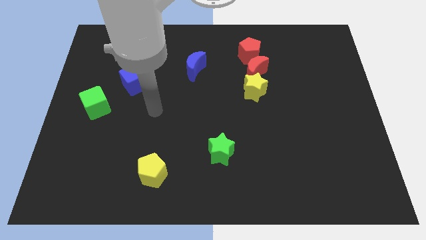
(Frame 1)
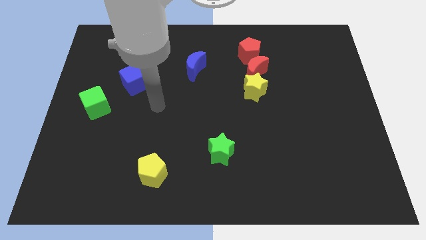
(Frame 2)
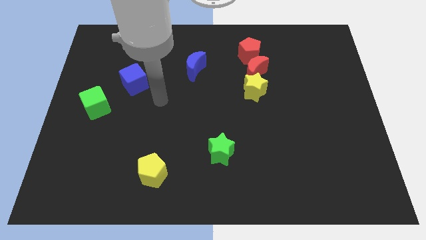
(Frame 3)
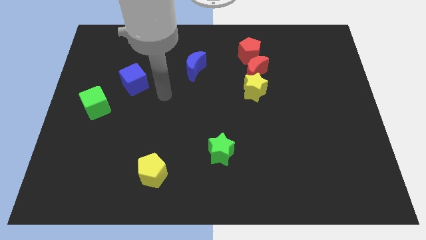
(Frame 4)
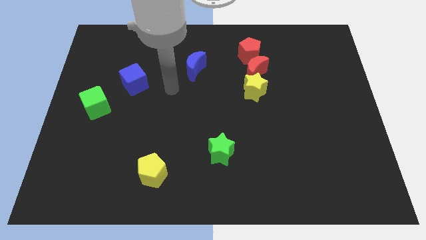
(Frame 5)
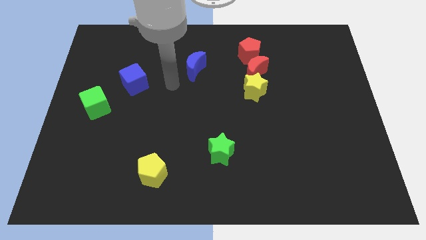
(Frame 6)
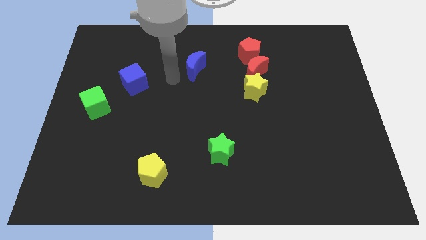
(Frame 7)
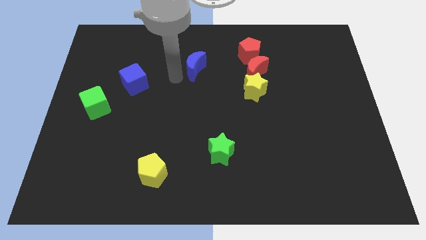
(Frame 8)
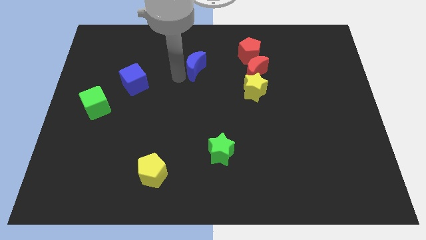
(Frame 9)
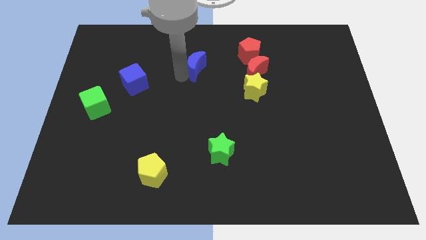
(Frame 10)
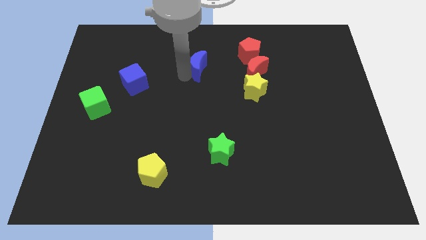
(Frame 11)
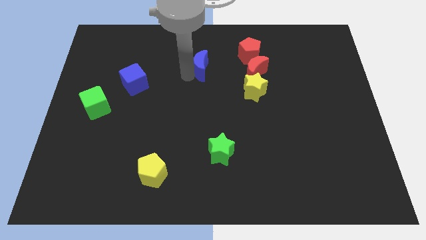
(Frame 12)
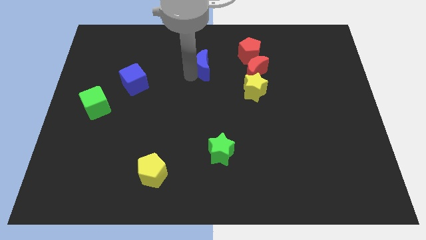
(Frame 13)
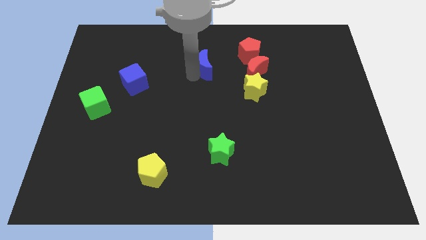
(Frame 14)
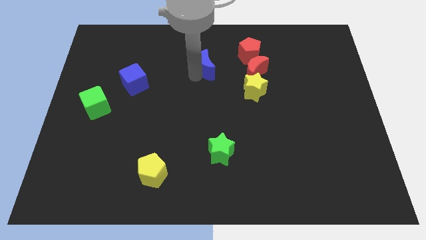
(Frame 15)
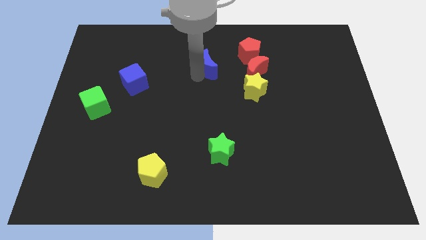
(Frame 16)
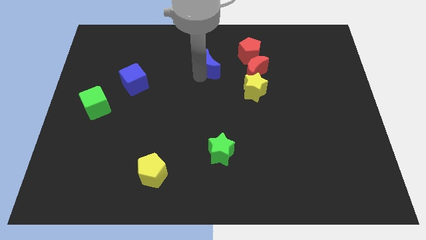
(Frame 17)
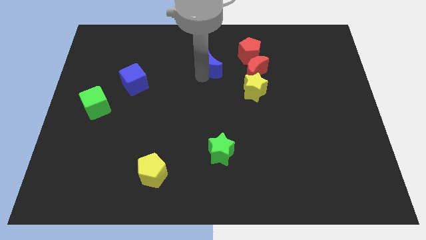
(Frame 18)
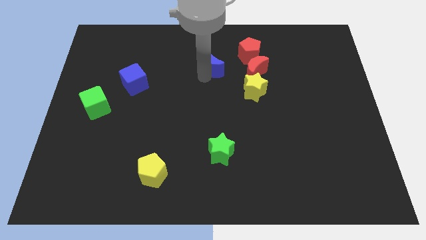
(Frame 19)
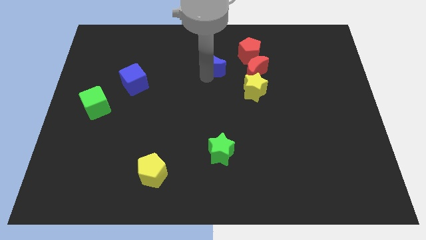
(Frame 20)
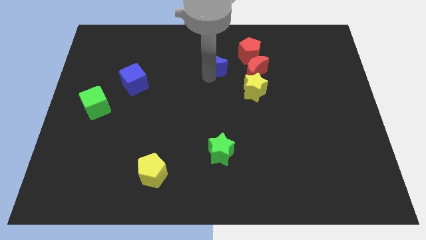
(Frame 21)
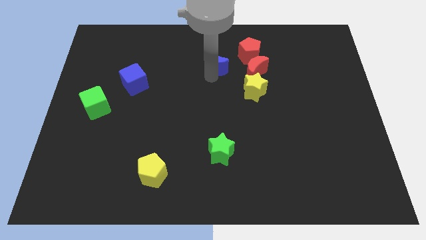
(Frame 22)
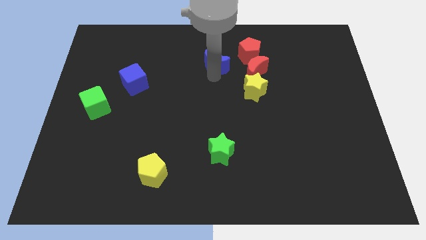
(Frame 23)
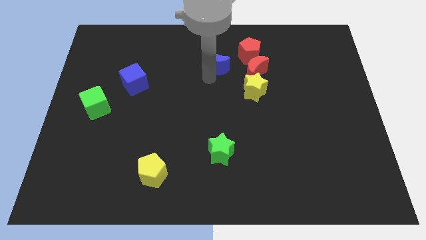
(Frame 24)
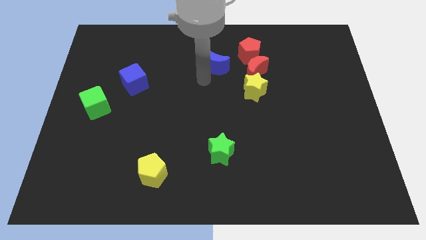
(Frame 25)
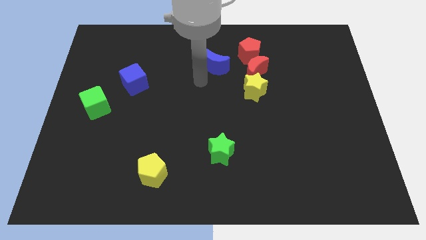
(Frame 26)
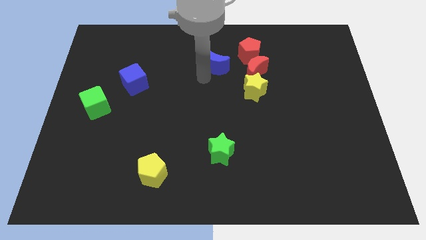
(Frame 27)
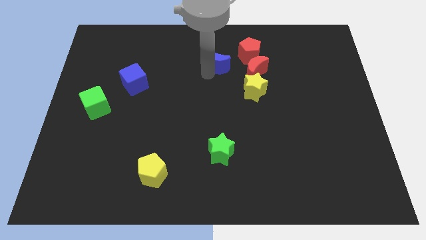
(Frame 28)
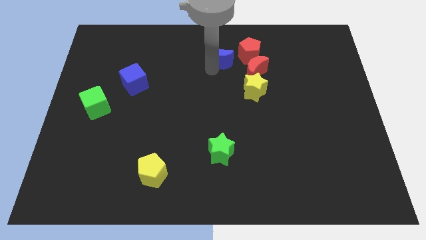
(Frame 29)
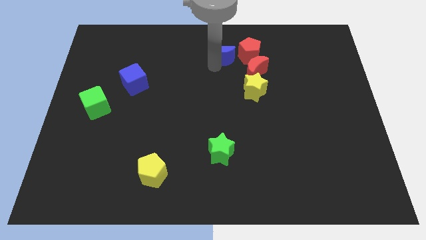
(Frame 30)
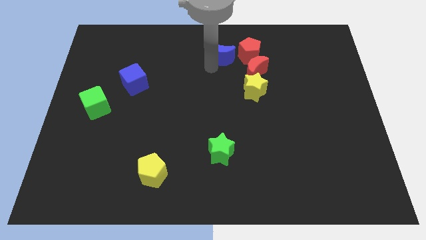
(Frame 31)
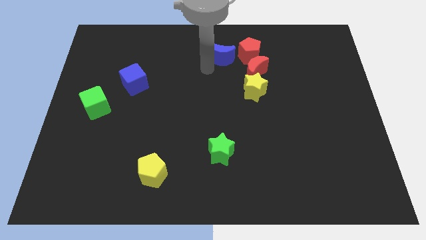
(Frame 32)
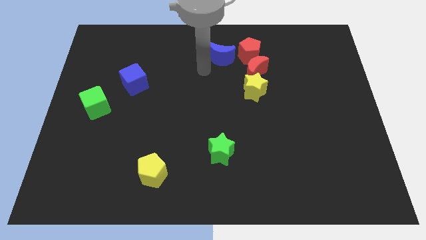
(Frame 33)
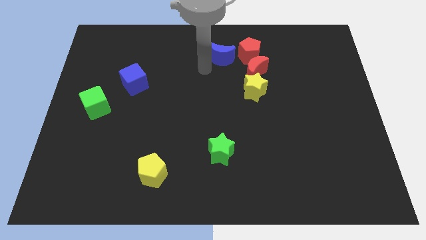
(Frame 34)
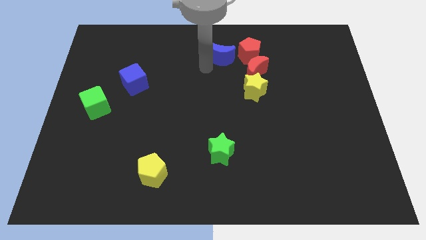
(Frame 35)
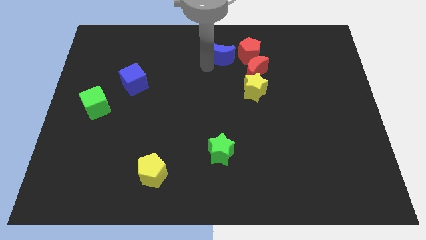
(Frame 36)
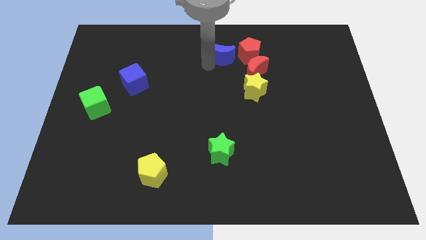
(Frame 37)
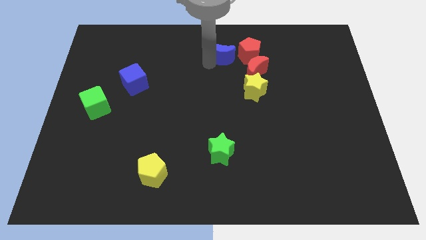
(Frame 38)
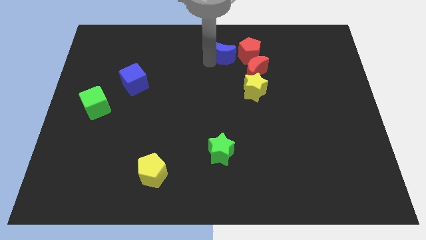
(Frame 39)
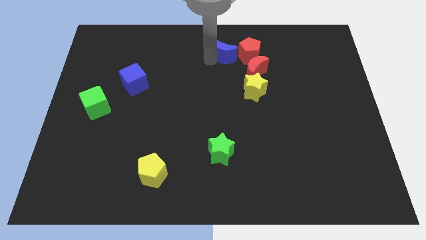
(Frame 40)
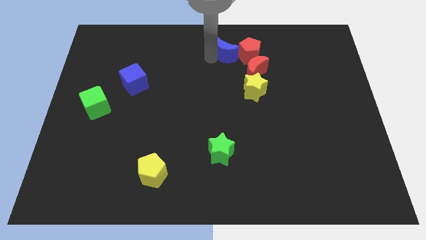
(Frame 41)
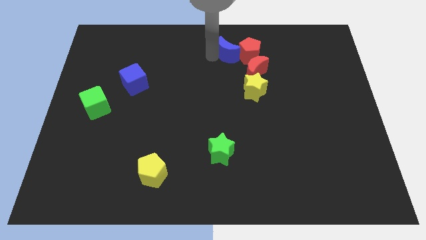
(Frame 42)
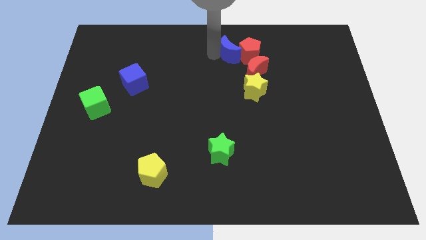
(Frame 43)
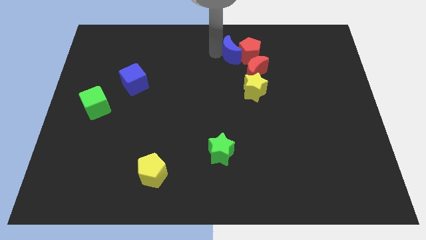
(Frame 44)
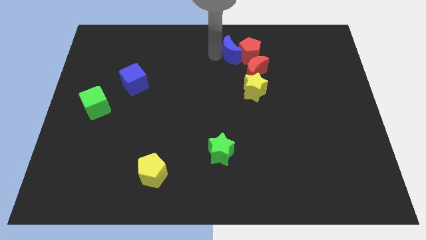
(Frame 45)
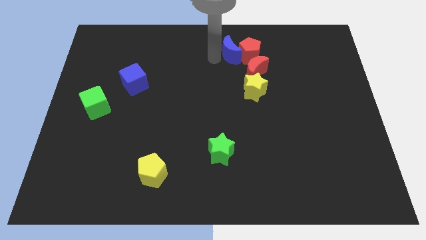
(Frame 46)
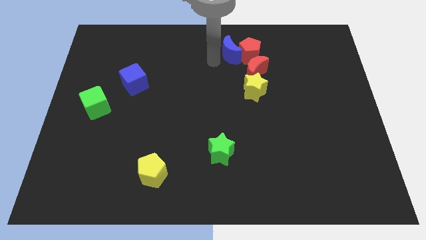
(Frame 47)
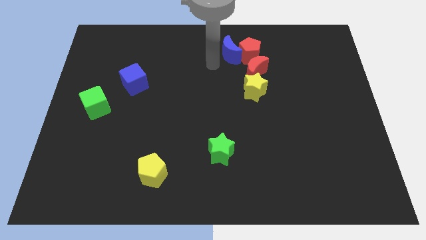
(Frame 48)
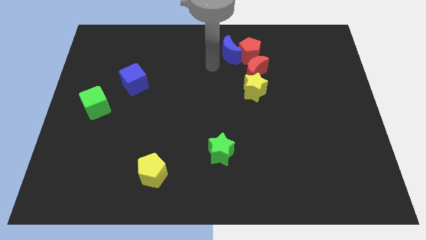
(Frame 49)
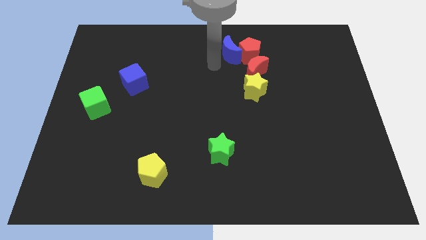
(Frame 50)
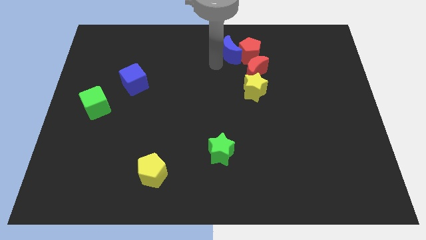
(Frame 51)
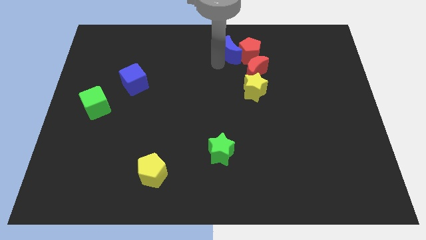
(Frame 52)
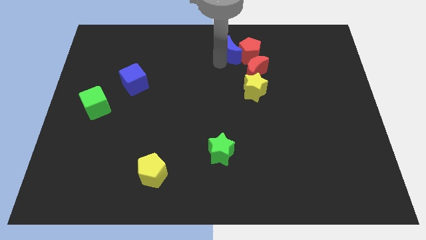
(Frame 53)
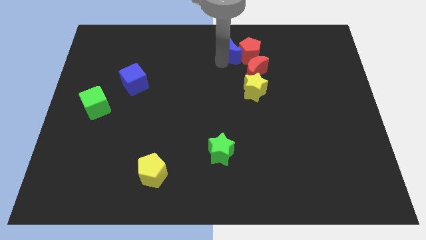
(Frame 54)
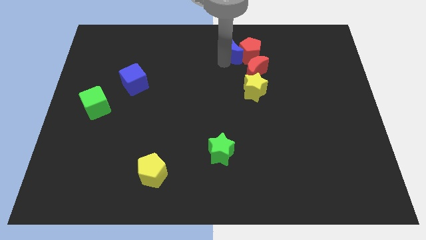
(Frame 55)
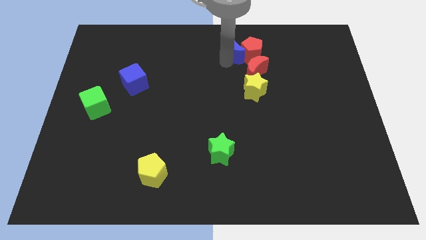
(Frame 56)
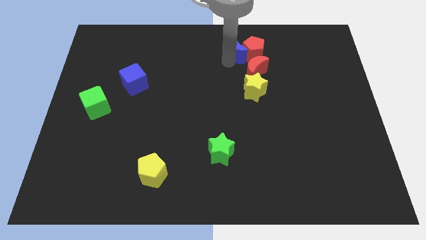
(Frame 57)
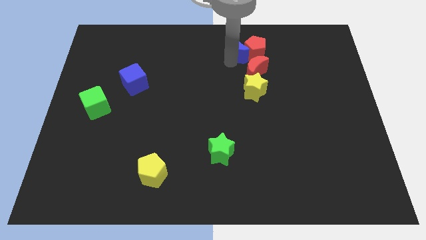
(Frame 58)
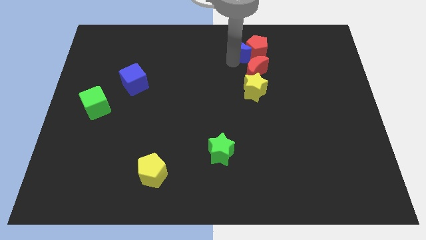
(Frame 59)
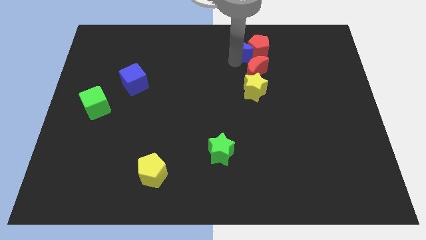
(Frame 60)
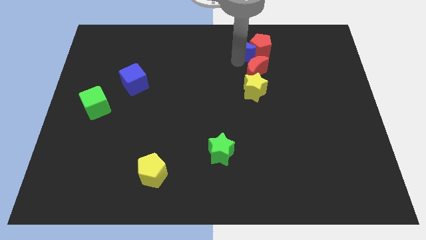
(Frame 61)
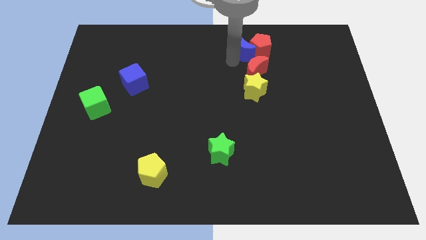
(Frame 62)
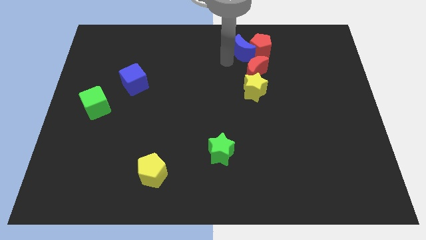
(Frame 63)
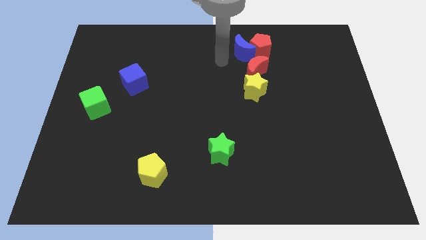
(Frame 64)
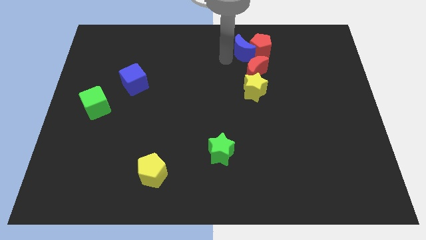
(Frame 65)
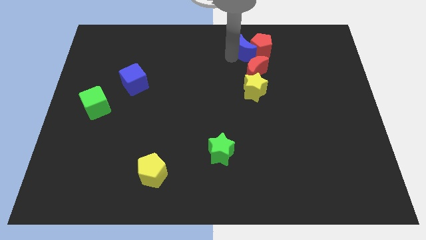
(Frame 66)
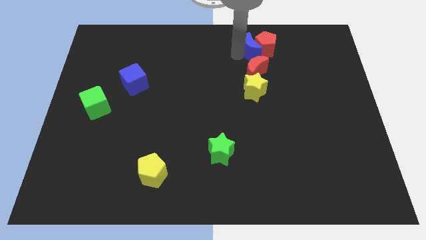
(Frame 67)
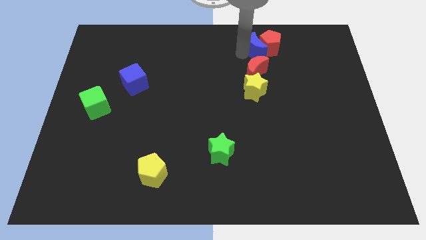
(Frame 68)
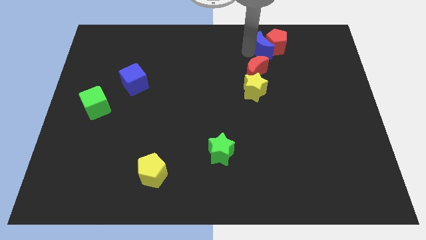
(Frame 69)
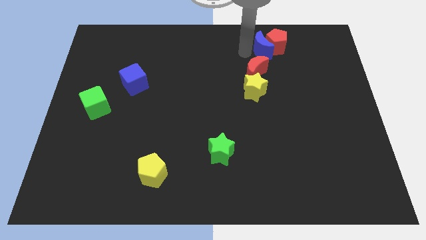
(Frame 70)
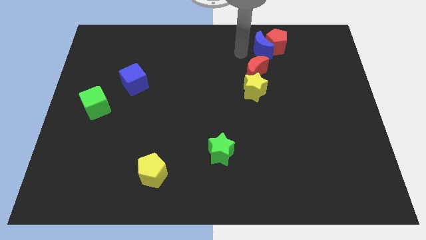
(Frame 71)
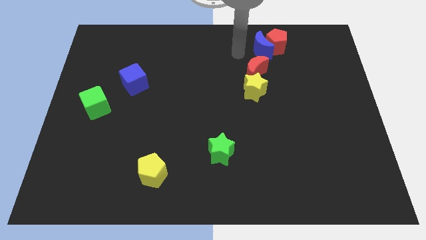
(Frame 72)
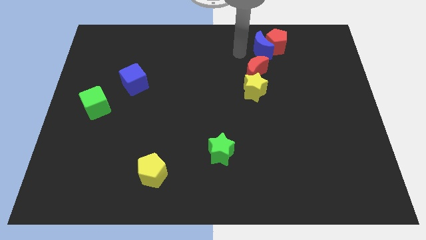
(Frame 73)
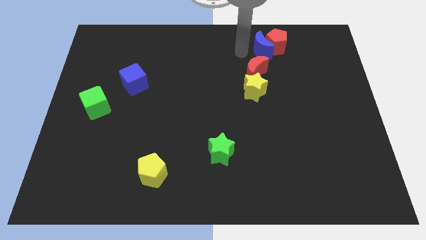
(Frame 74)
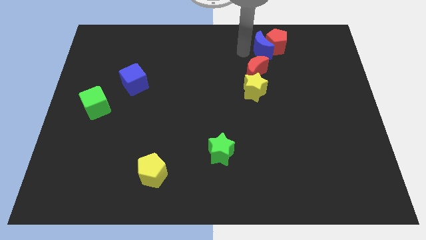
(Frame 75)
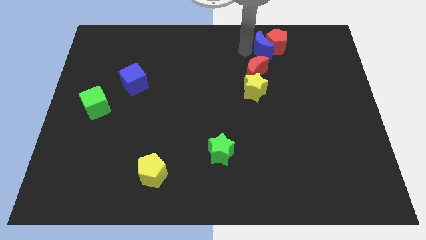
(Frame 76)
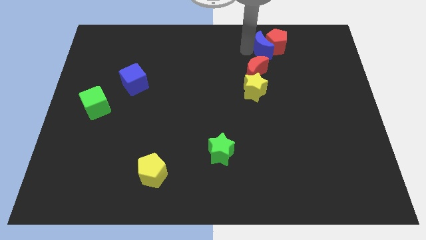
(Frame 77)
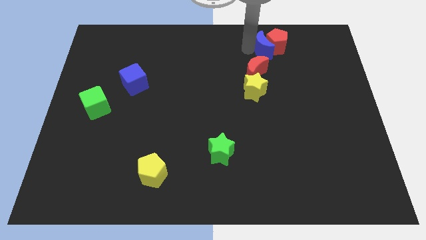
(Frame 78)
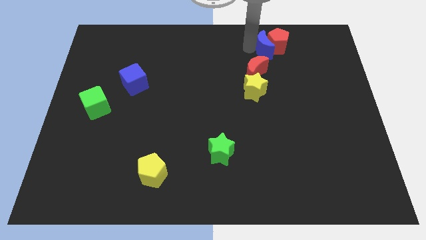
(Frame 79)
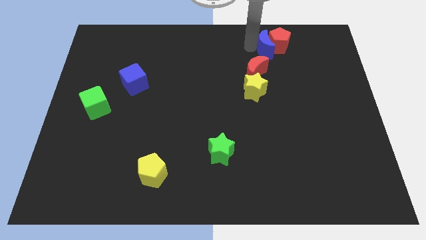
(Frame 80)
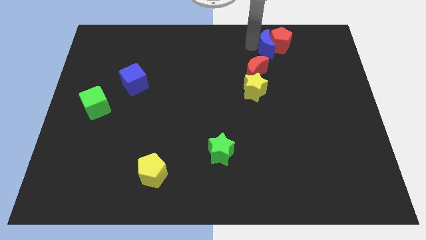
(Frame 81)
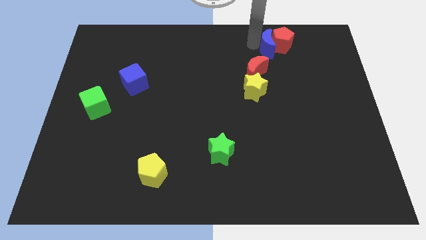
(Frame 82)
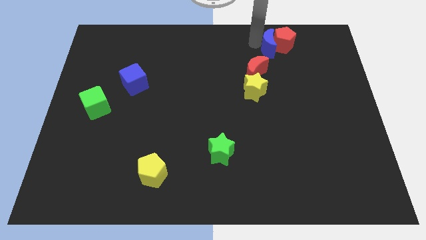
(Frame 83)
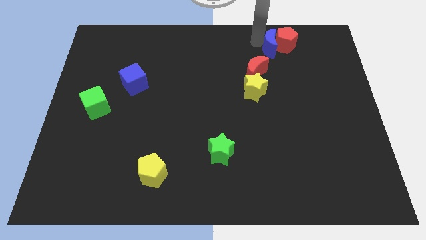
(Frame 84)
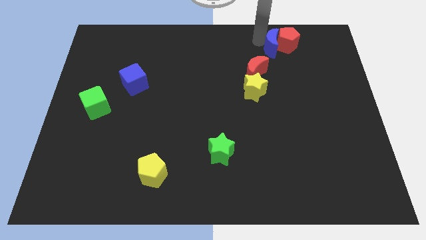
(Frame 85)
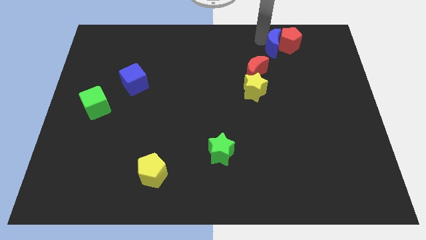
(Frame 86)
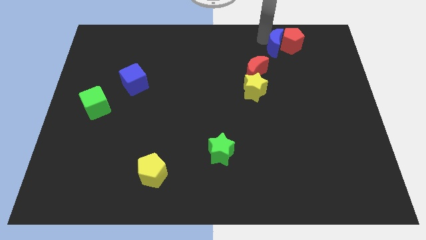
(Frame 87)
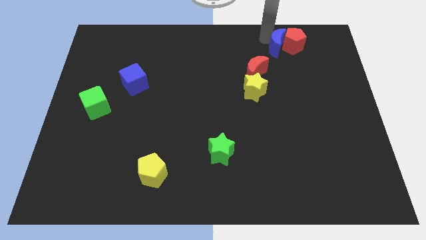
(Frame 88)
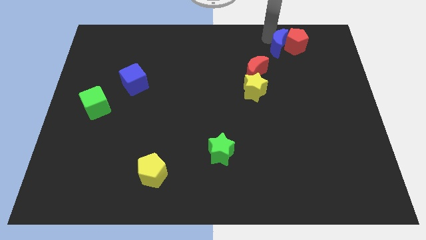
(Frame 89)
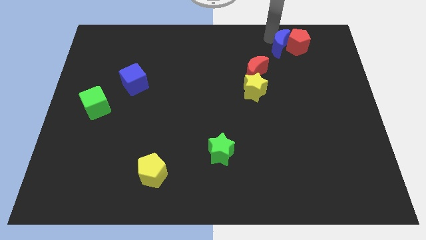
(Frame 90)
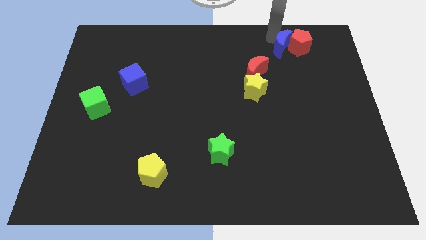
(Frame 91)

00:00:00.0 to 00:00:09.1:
slide the blue moon to the right
